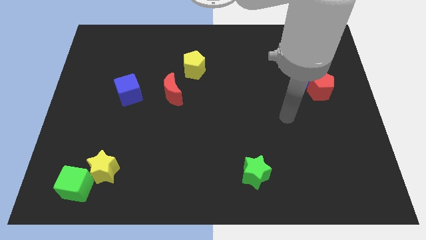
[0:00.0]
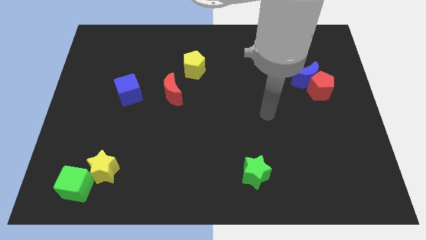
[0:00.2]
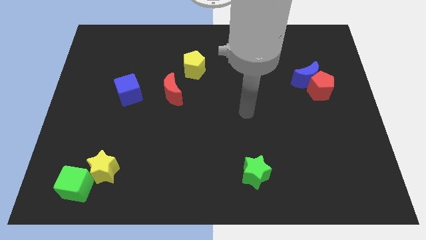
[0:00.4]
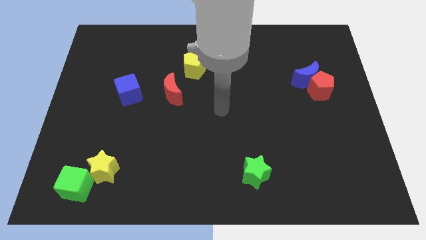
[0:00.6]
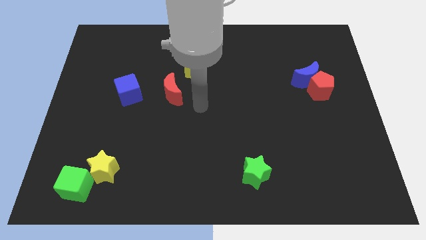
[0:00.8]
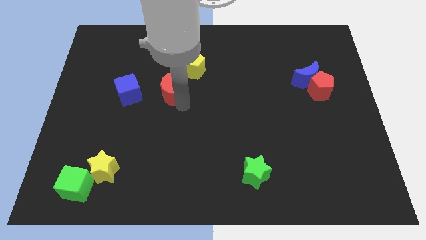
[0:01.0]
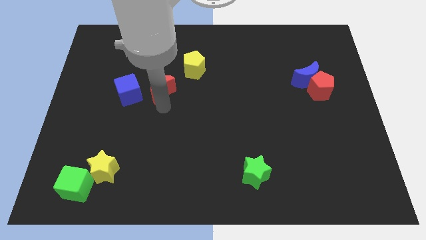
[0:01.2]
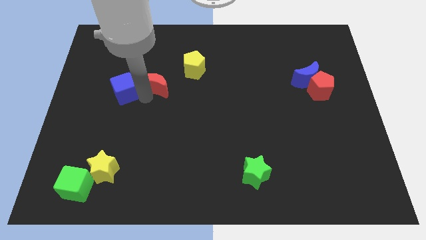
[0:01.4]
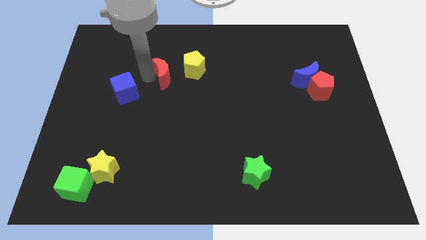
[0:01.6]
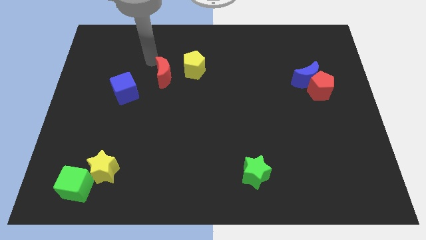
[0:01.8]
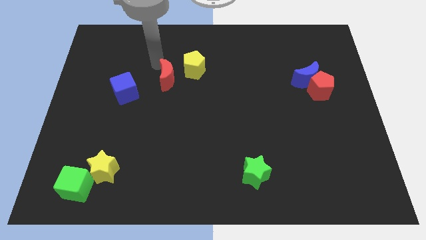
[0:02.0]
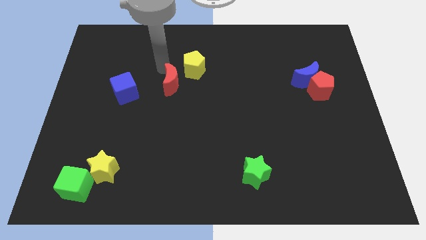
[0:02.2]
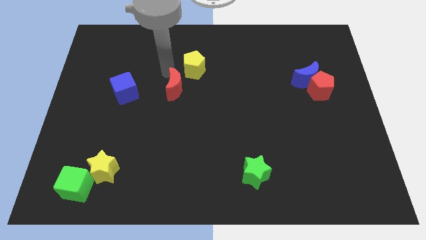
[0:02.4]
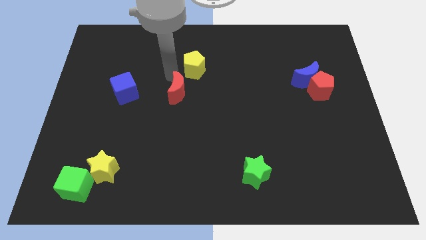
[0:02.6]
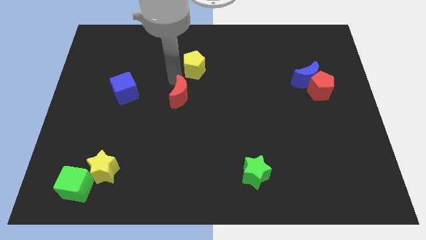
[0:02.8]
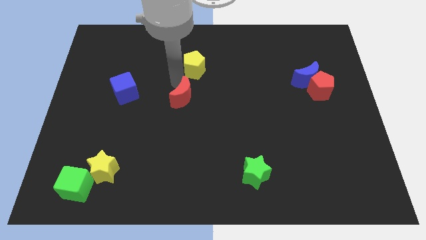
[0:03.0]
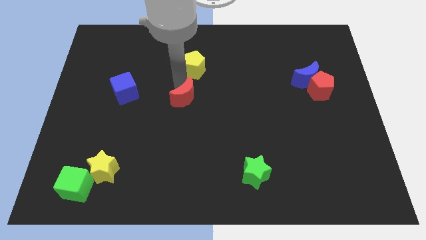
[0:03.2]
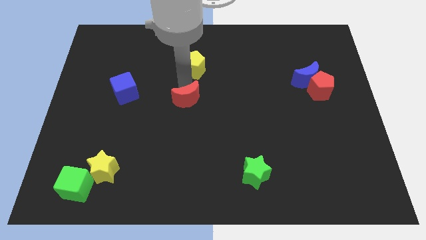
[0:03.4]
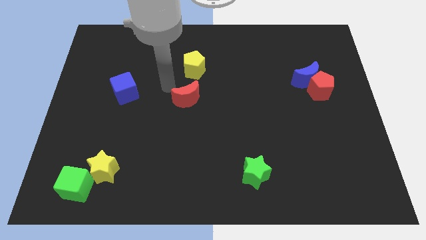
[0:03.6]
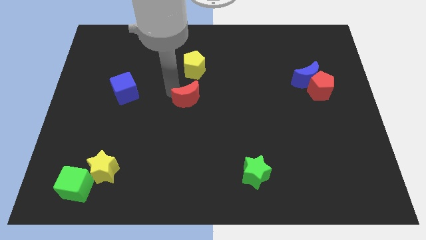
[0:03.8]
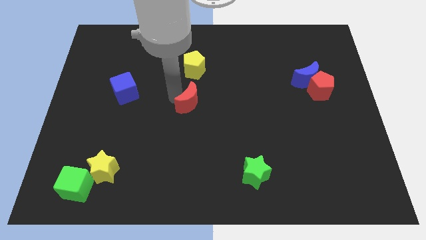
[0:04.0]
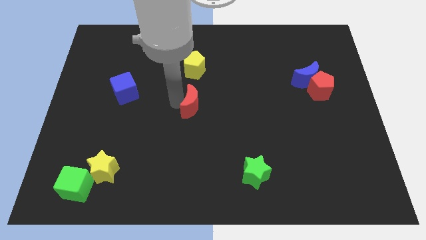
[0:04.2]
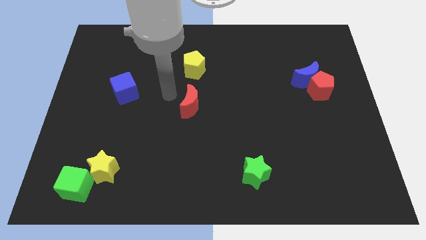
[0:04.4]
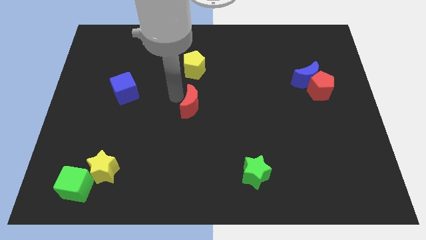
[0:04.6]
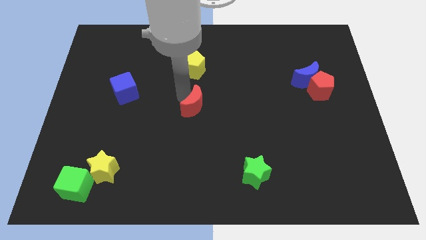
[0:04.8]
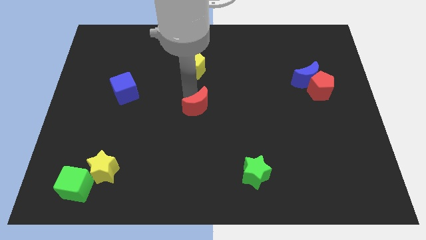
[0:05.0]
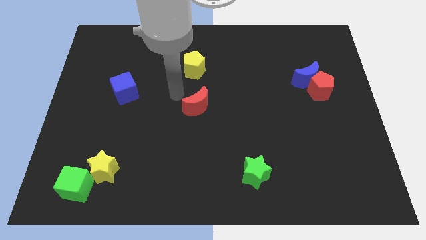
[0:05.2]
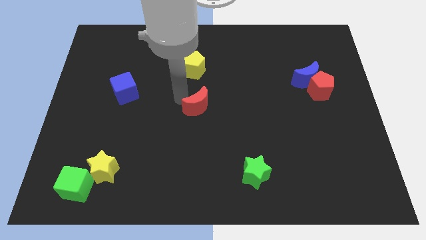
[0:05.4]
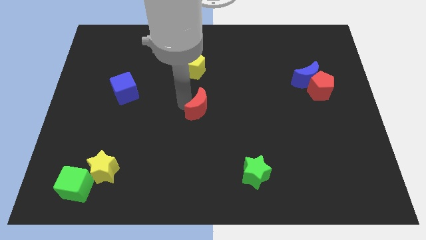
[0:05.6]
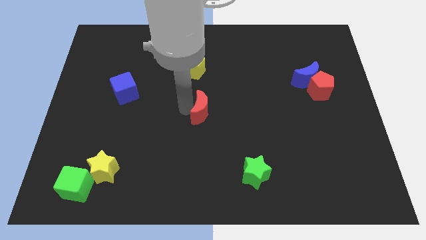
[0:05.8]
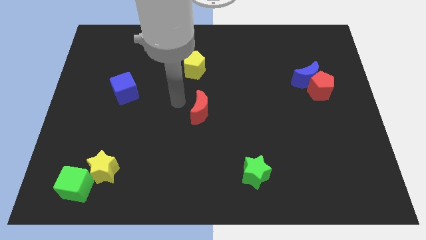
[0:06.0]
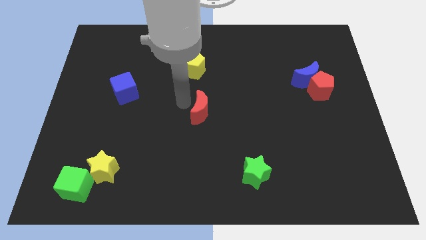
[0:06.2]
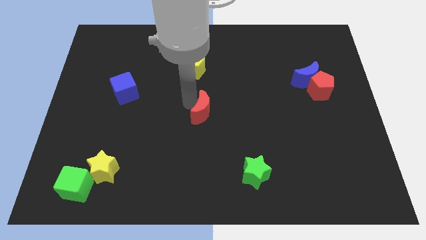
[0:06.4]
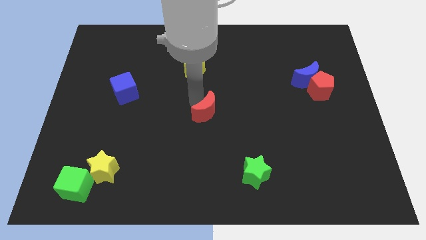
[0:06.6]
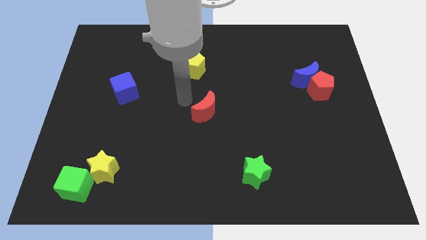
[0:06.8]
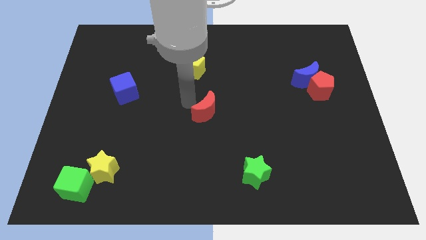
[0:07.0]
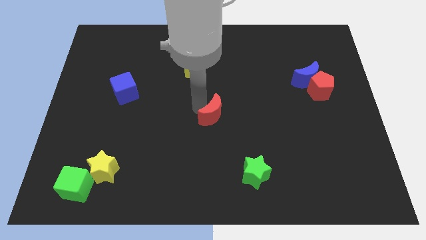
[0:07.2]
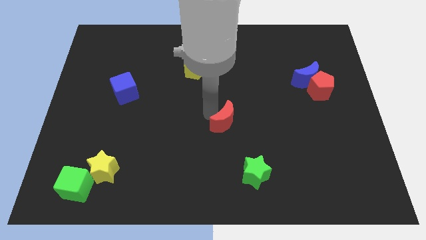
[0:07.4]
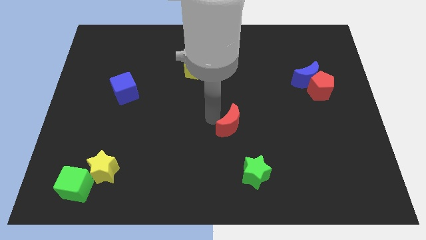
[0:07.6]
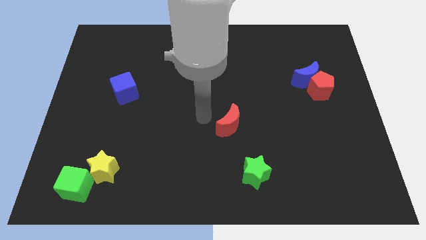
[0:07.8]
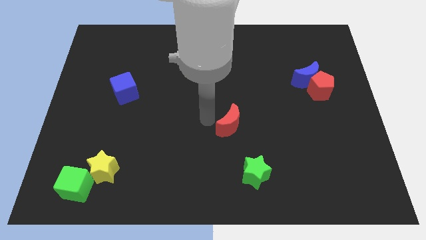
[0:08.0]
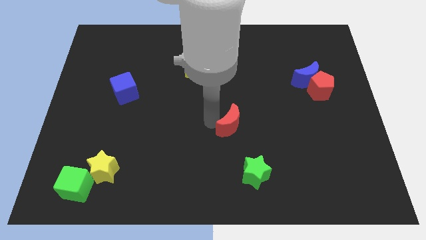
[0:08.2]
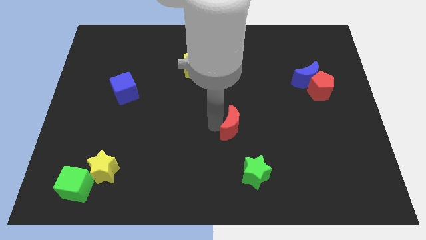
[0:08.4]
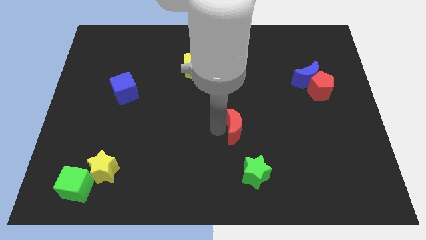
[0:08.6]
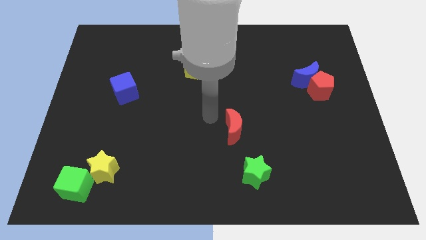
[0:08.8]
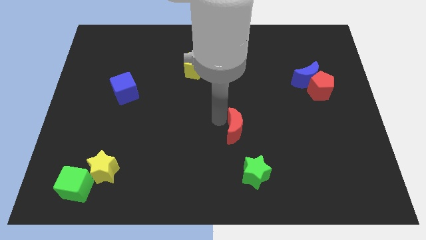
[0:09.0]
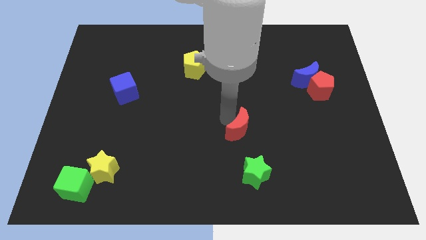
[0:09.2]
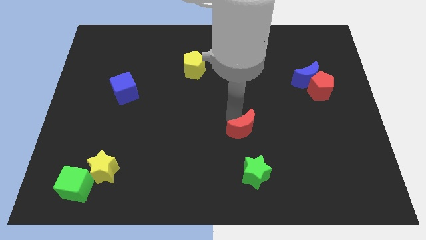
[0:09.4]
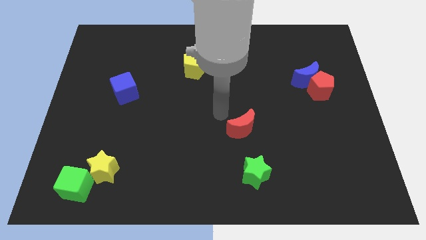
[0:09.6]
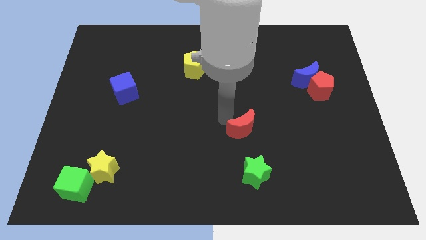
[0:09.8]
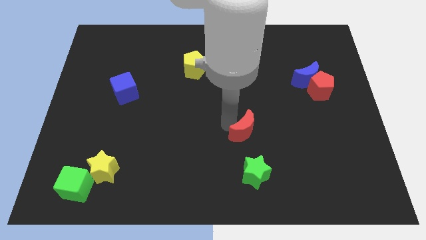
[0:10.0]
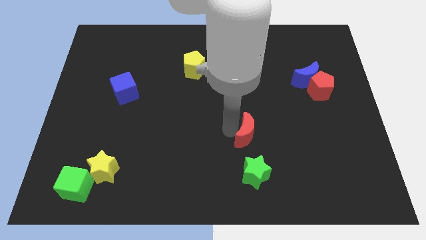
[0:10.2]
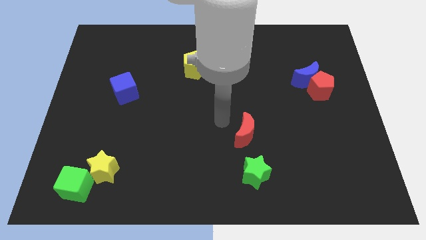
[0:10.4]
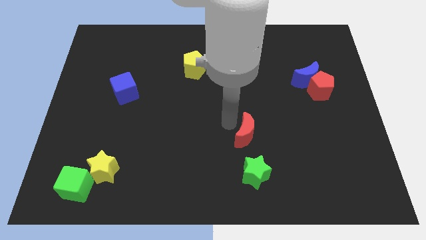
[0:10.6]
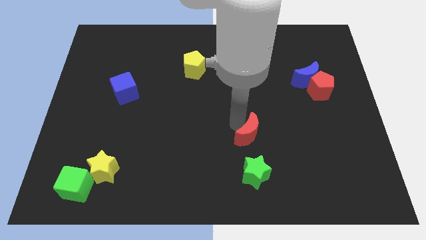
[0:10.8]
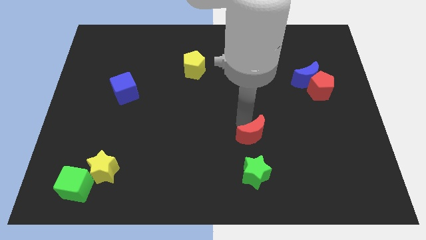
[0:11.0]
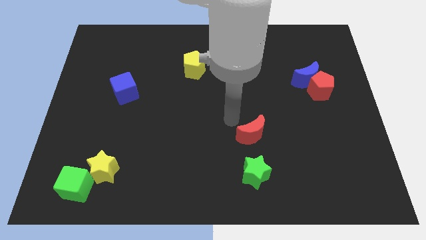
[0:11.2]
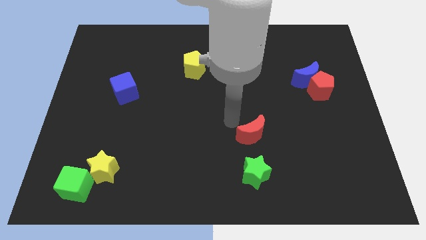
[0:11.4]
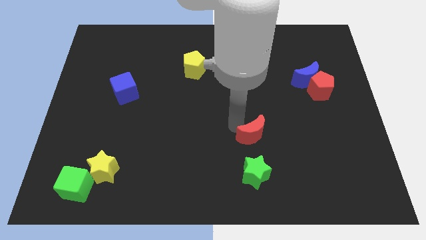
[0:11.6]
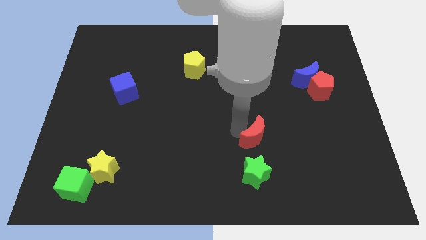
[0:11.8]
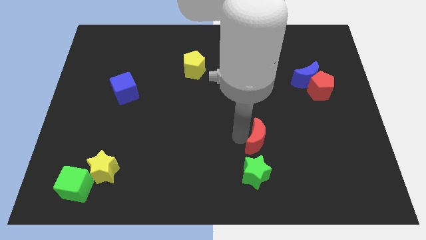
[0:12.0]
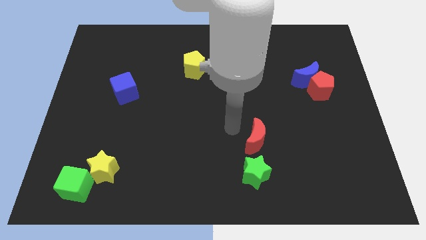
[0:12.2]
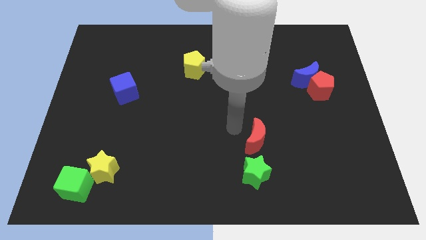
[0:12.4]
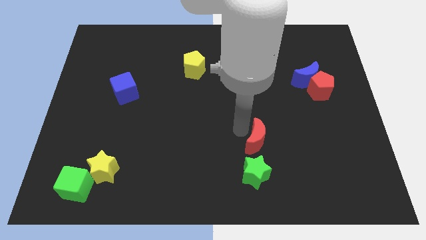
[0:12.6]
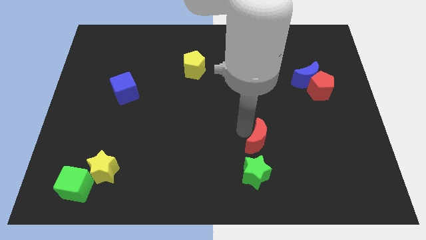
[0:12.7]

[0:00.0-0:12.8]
move the red moon to the top right side of the green star

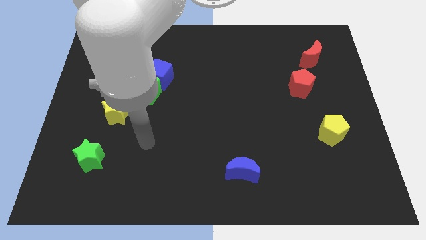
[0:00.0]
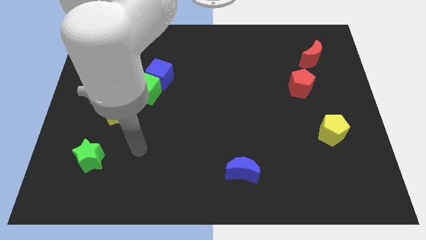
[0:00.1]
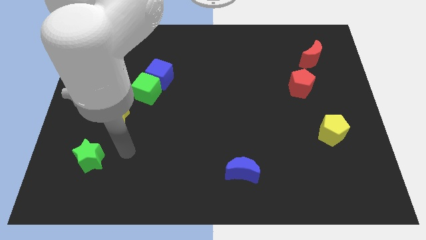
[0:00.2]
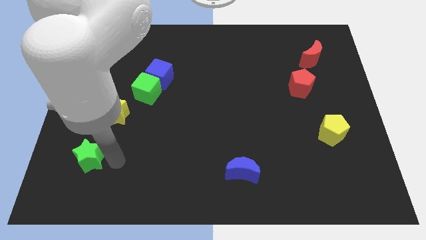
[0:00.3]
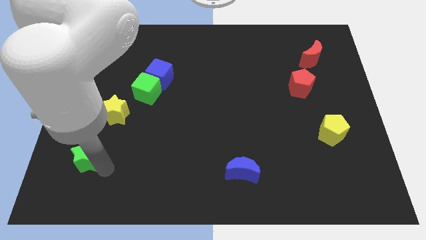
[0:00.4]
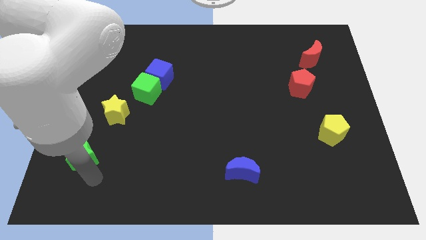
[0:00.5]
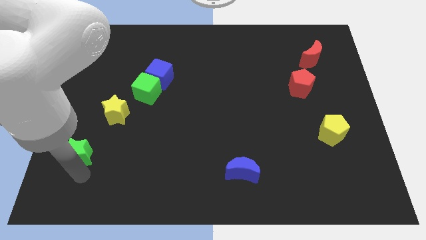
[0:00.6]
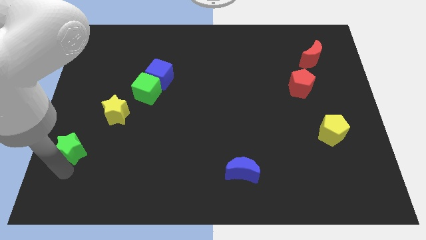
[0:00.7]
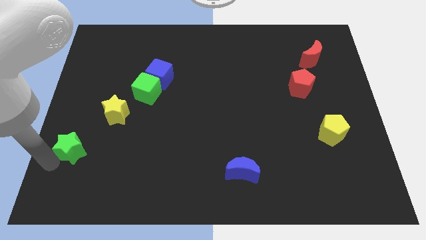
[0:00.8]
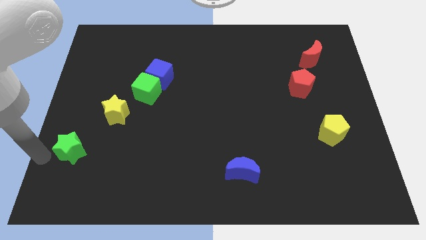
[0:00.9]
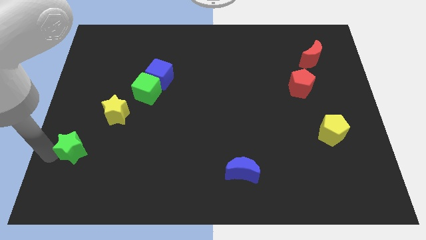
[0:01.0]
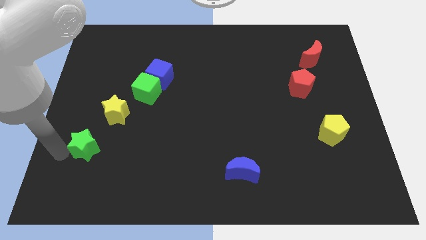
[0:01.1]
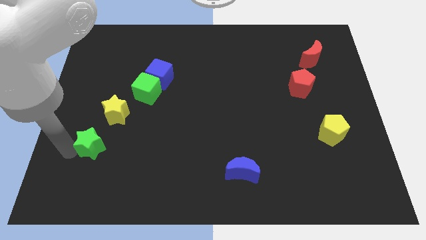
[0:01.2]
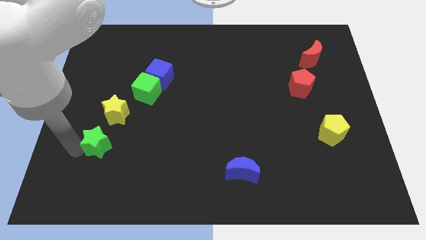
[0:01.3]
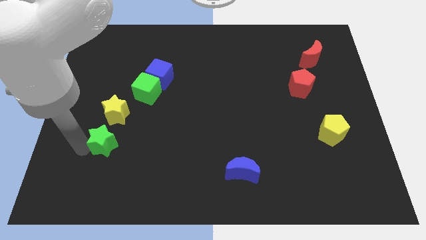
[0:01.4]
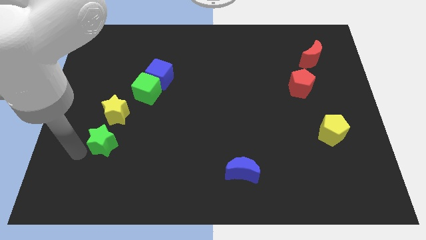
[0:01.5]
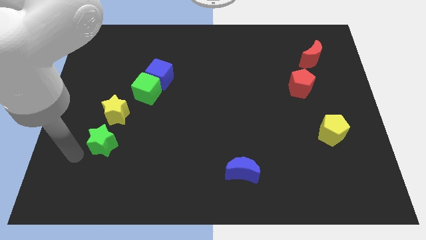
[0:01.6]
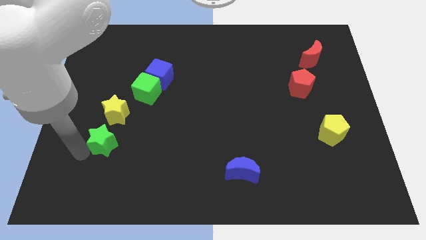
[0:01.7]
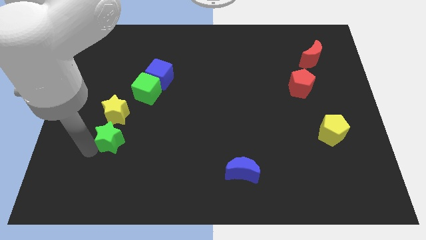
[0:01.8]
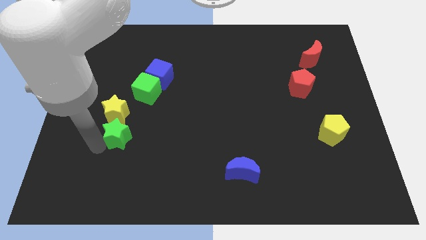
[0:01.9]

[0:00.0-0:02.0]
put the green star diagonally down and to the right of the yellow star
